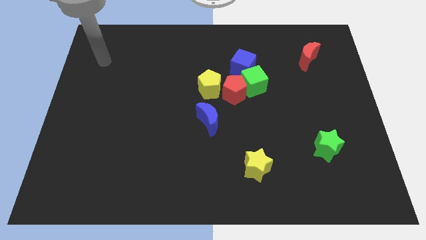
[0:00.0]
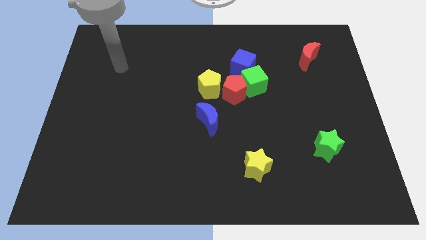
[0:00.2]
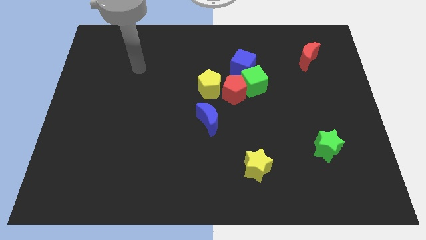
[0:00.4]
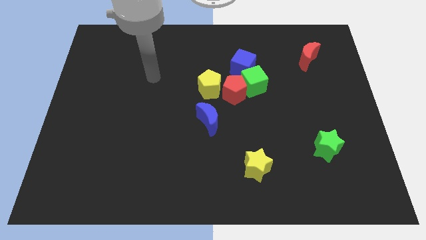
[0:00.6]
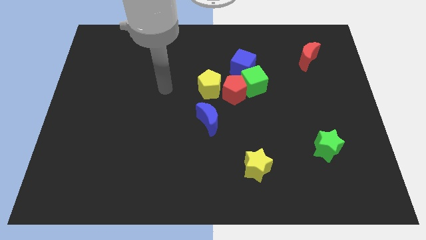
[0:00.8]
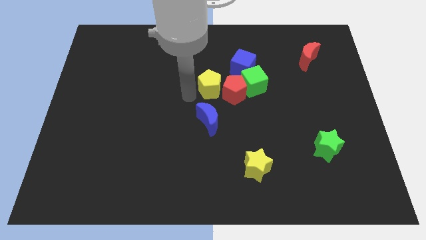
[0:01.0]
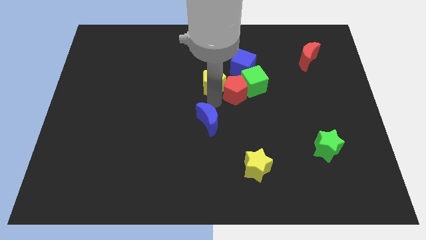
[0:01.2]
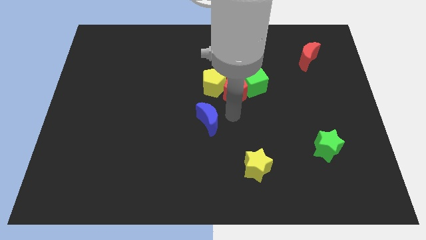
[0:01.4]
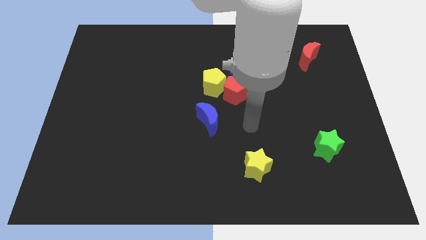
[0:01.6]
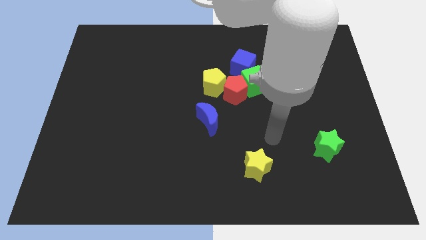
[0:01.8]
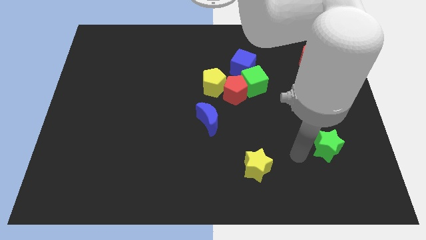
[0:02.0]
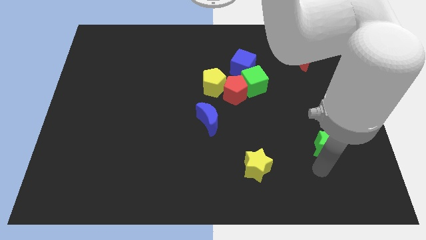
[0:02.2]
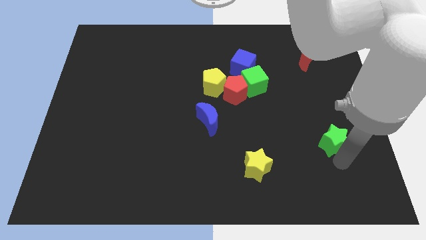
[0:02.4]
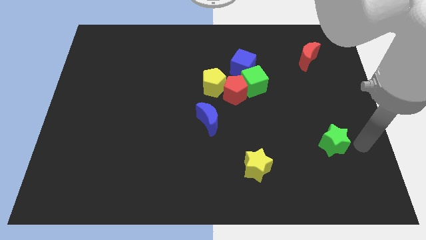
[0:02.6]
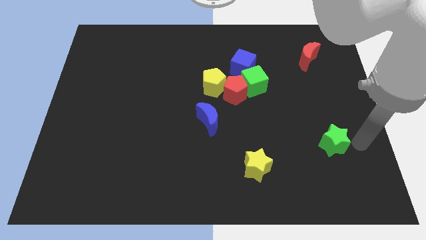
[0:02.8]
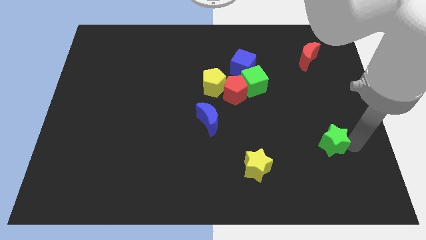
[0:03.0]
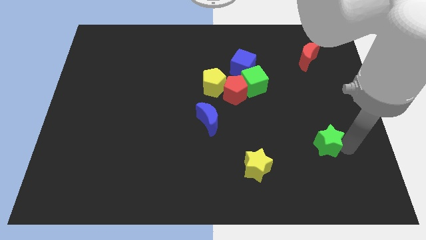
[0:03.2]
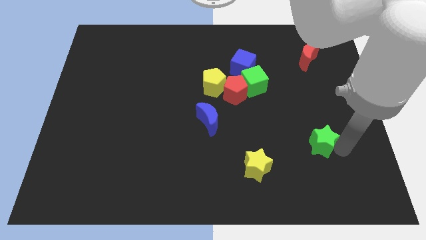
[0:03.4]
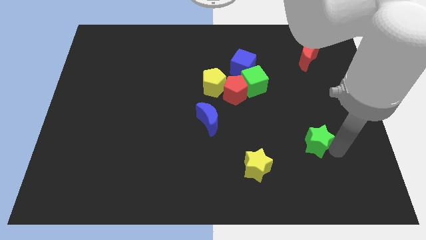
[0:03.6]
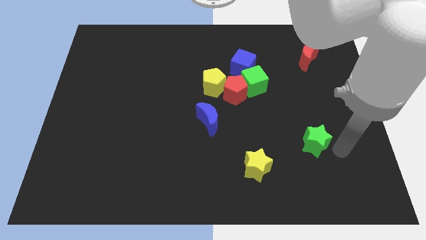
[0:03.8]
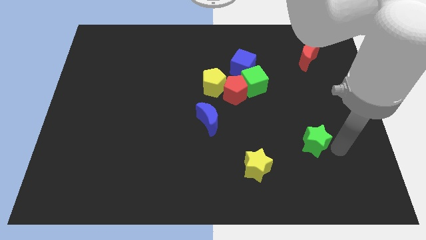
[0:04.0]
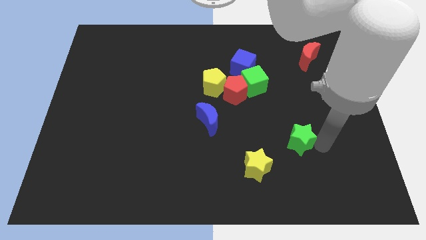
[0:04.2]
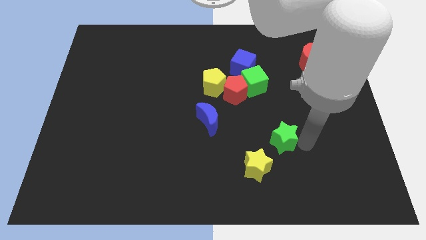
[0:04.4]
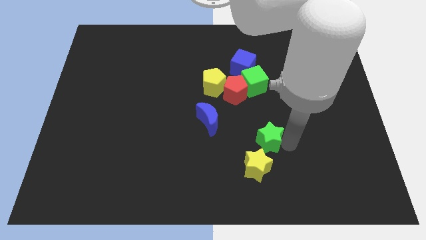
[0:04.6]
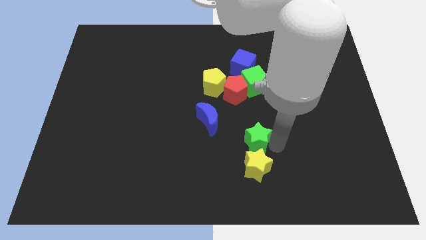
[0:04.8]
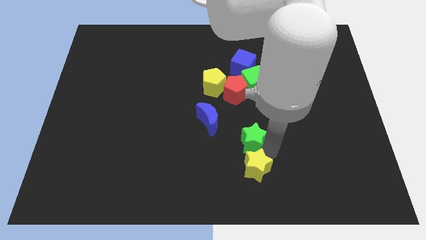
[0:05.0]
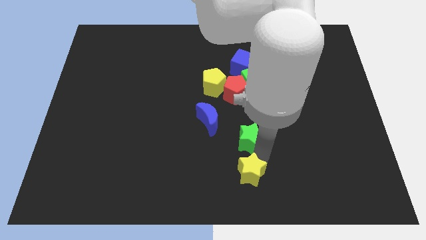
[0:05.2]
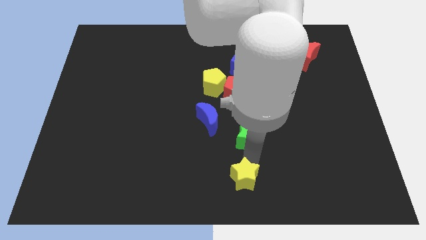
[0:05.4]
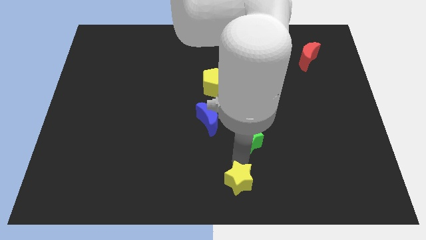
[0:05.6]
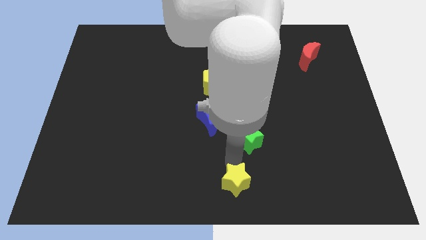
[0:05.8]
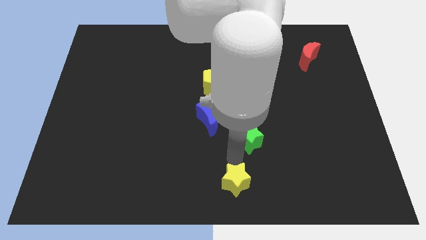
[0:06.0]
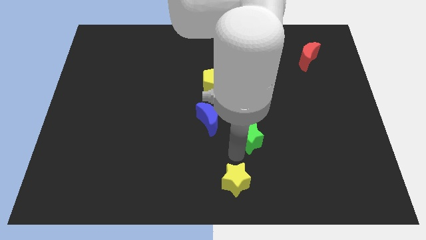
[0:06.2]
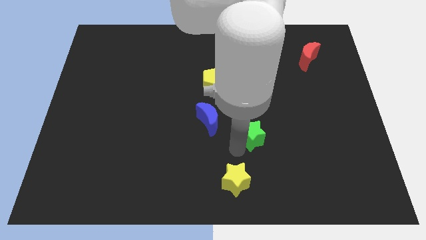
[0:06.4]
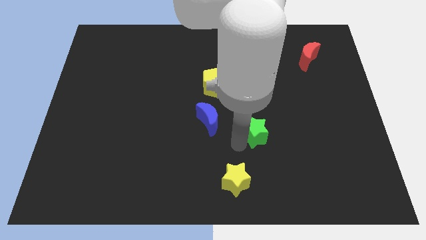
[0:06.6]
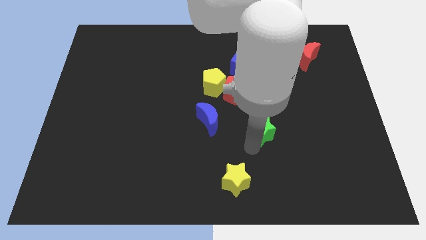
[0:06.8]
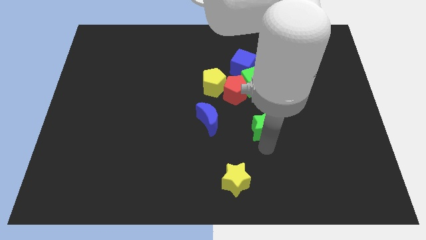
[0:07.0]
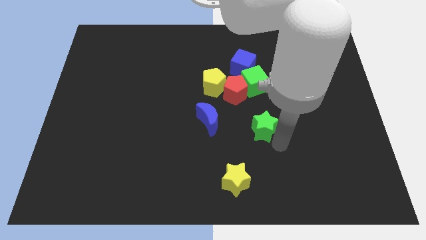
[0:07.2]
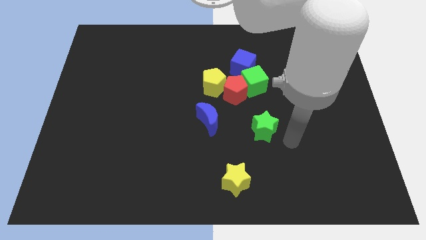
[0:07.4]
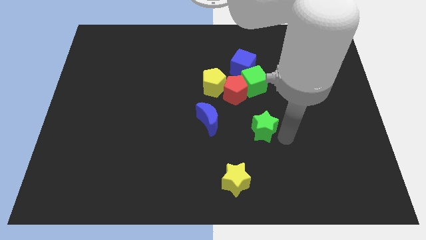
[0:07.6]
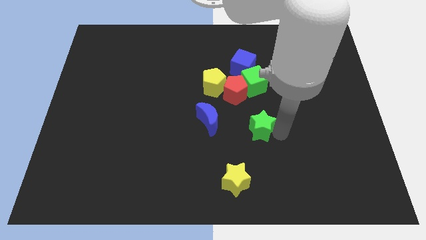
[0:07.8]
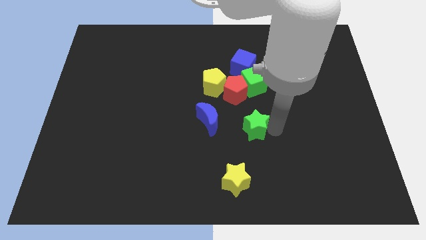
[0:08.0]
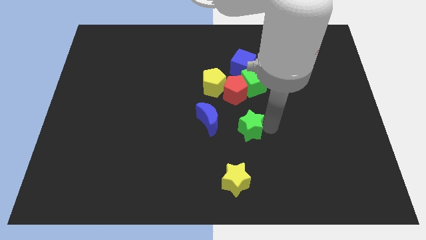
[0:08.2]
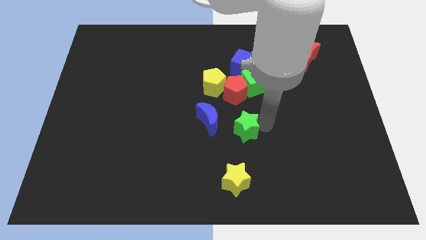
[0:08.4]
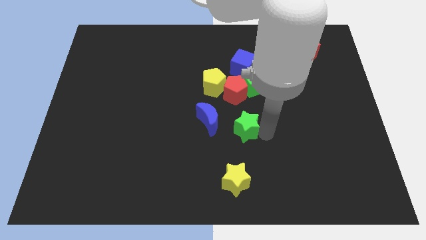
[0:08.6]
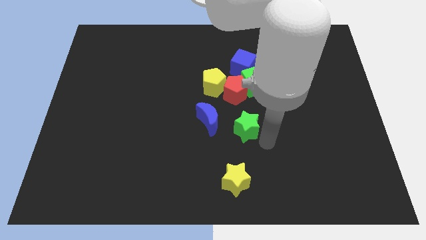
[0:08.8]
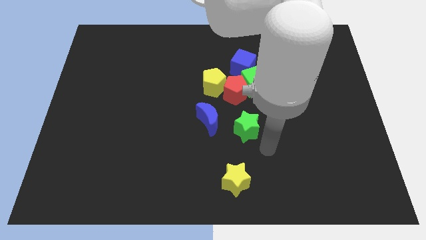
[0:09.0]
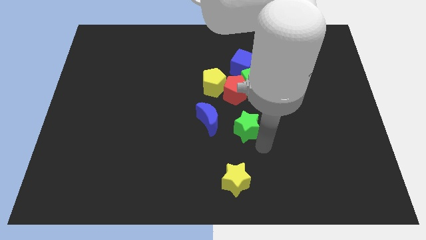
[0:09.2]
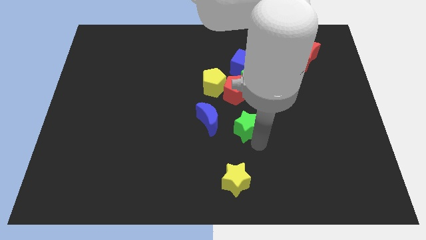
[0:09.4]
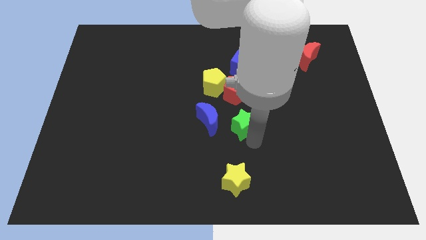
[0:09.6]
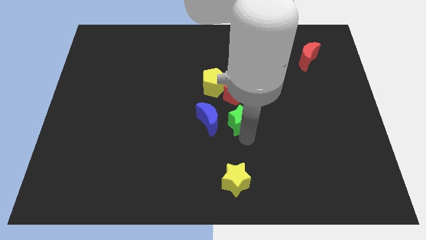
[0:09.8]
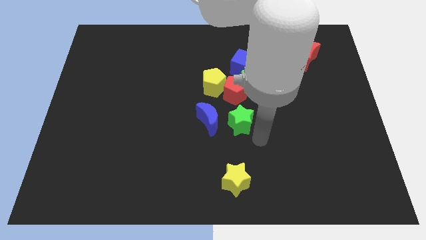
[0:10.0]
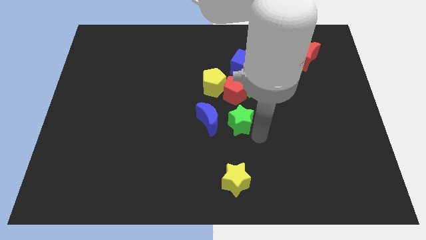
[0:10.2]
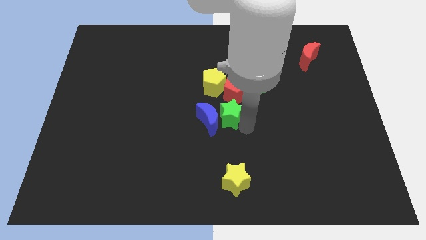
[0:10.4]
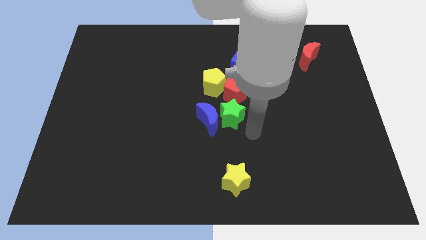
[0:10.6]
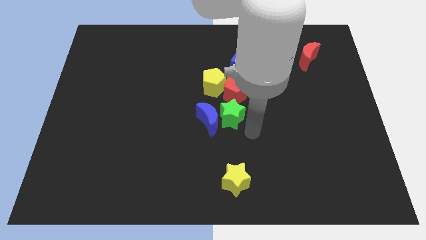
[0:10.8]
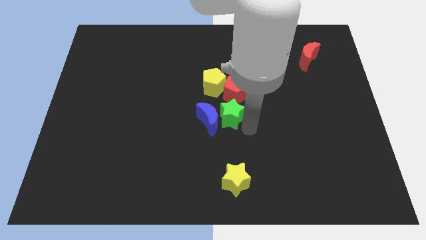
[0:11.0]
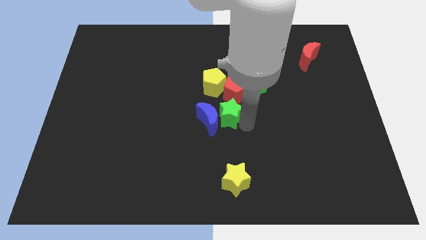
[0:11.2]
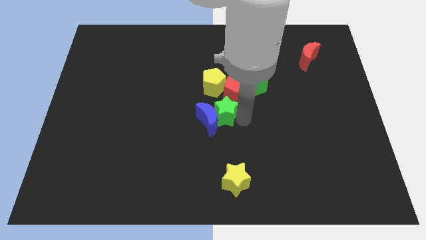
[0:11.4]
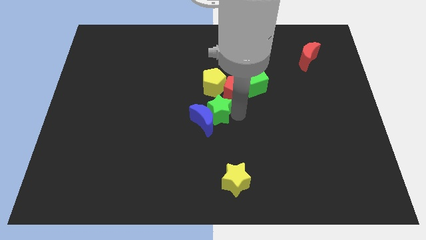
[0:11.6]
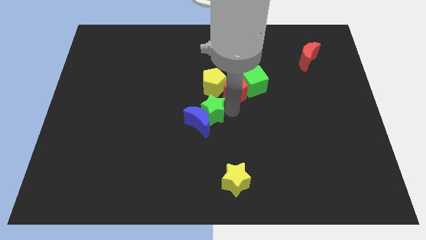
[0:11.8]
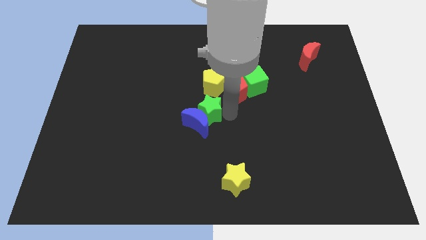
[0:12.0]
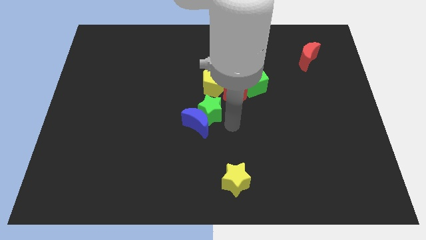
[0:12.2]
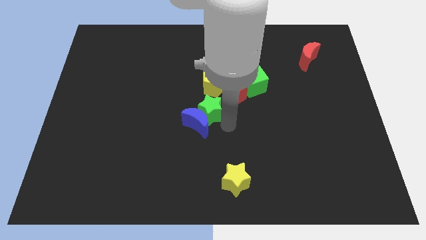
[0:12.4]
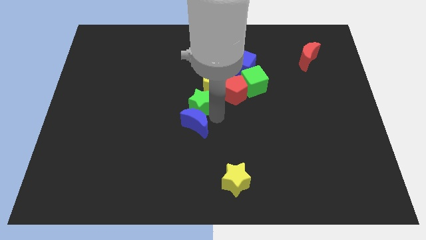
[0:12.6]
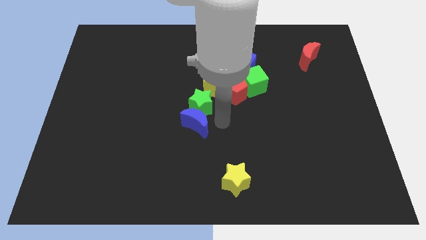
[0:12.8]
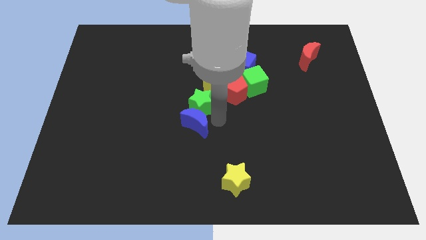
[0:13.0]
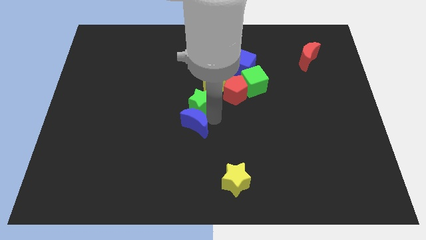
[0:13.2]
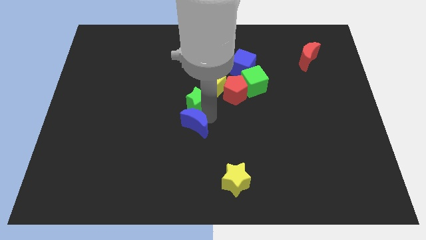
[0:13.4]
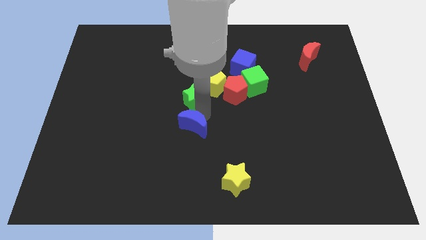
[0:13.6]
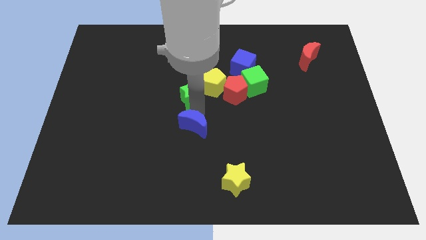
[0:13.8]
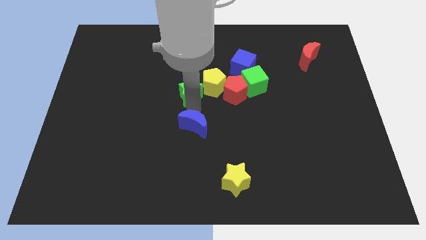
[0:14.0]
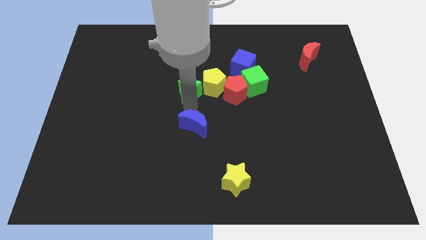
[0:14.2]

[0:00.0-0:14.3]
put the green star just left of the green cube

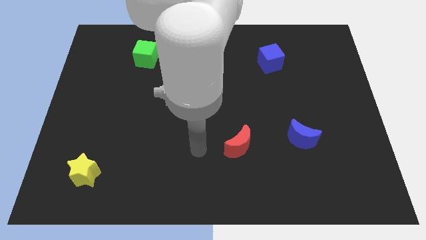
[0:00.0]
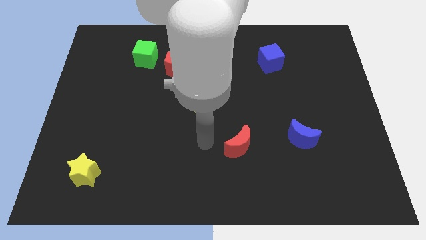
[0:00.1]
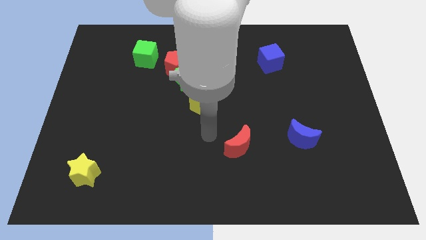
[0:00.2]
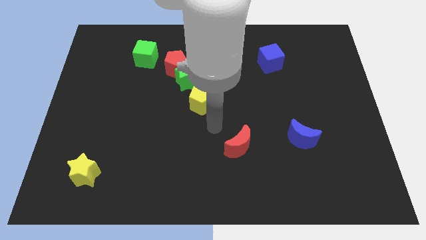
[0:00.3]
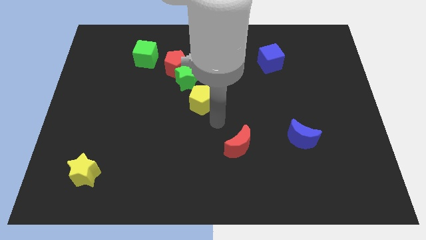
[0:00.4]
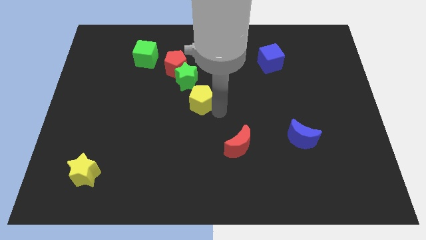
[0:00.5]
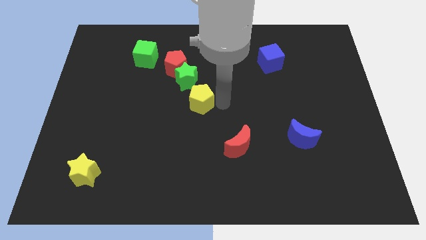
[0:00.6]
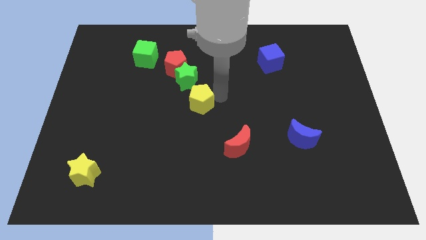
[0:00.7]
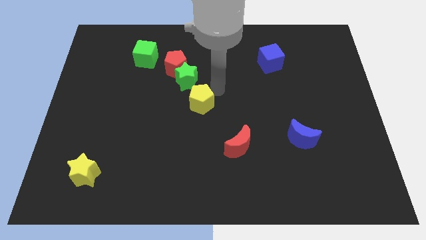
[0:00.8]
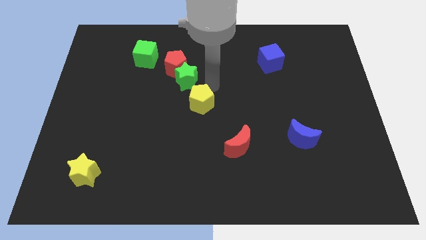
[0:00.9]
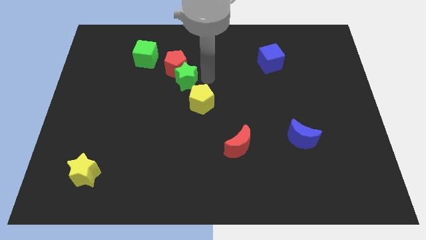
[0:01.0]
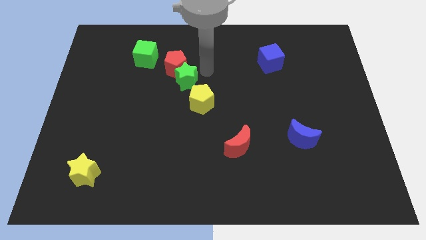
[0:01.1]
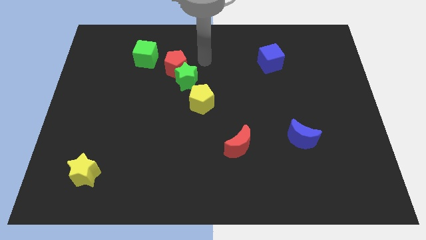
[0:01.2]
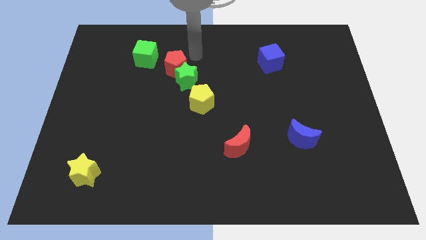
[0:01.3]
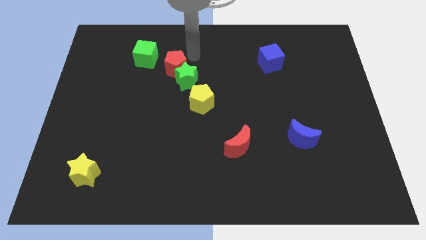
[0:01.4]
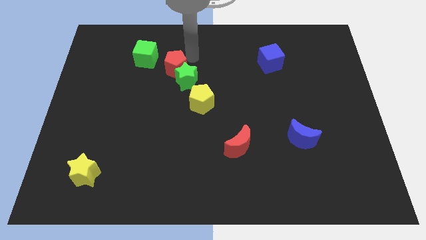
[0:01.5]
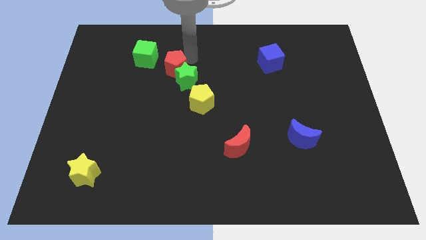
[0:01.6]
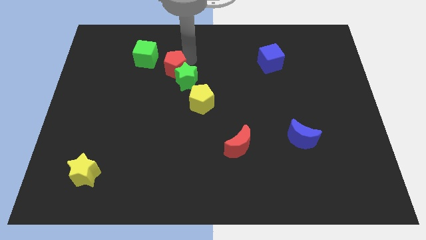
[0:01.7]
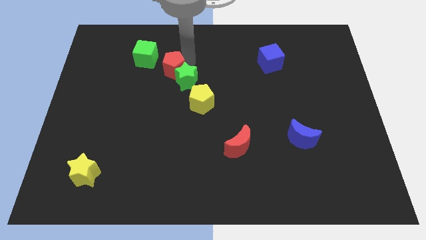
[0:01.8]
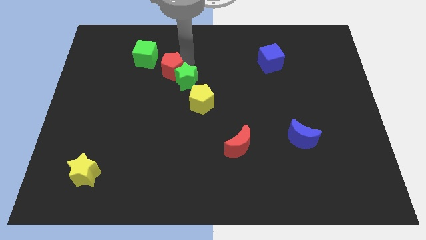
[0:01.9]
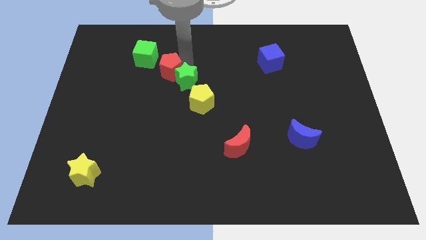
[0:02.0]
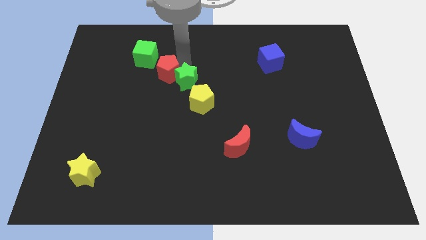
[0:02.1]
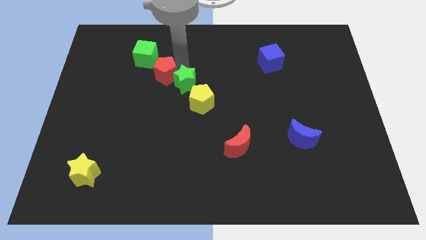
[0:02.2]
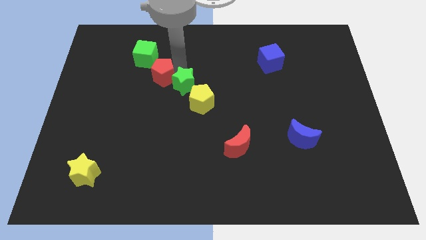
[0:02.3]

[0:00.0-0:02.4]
slide the red pentagon to the bottom of the green cube
